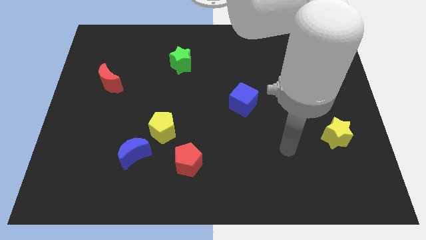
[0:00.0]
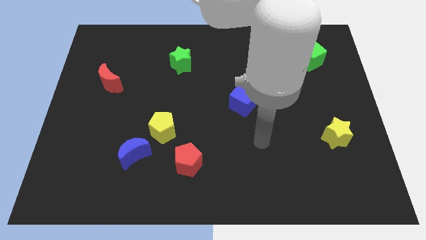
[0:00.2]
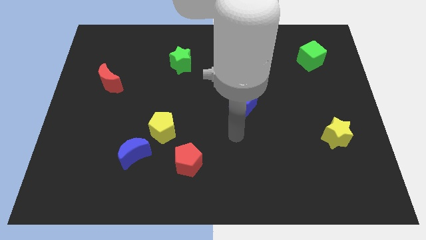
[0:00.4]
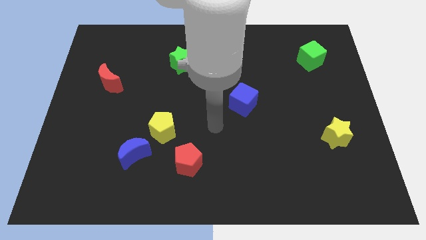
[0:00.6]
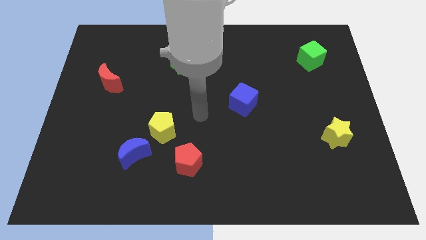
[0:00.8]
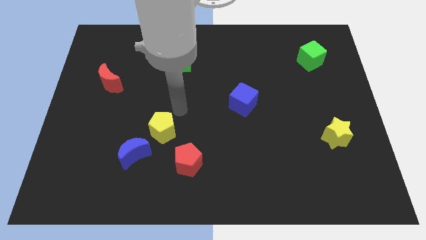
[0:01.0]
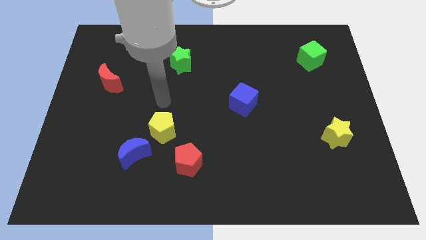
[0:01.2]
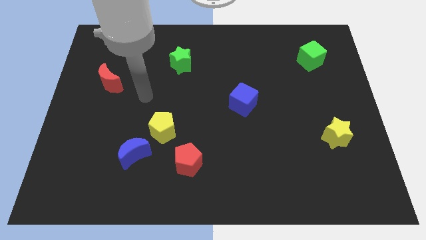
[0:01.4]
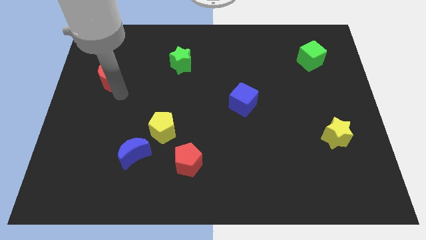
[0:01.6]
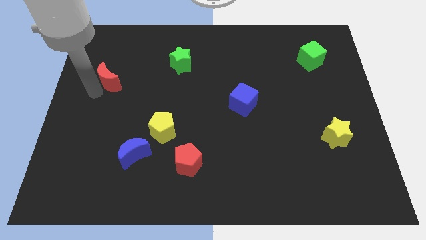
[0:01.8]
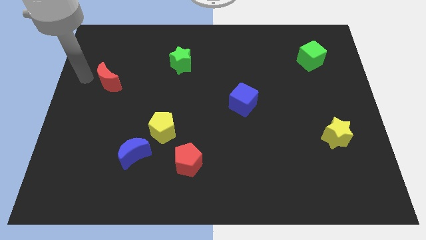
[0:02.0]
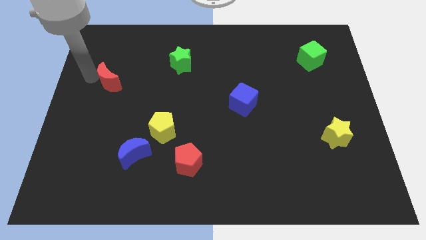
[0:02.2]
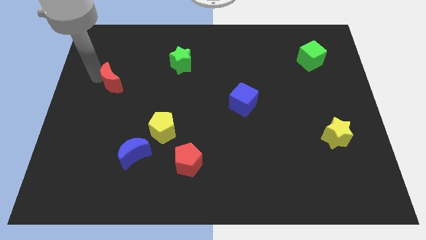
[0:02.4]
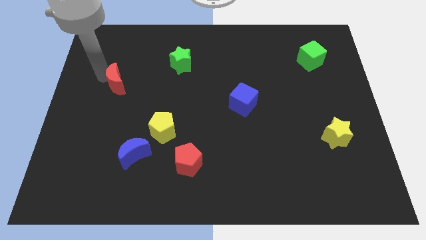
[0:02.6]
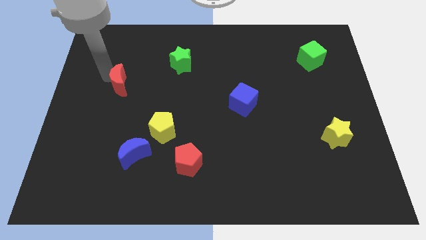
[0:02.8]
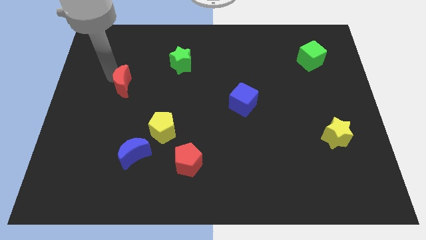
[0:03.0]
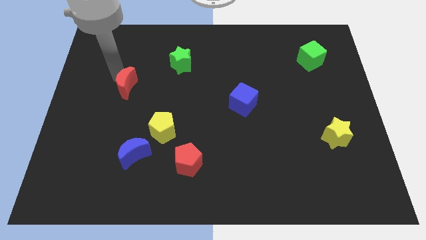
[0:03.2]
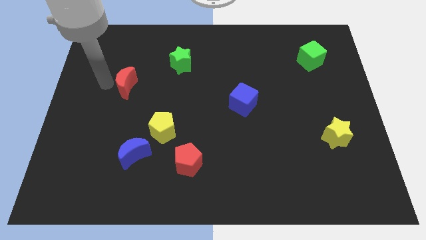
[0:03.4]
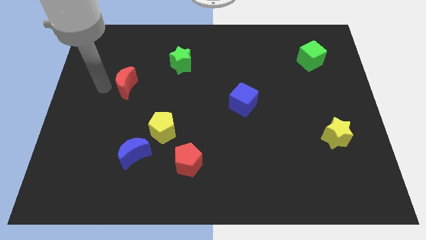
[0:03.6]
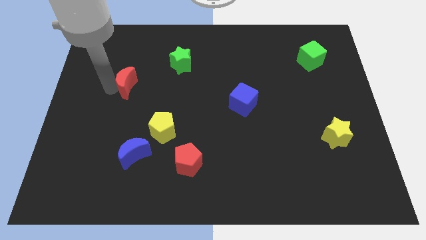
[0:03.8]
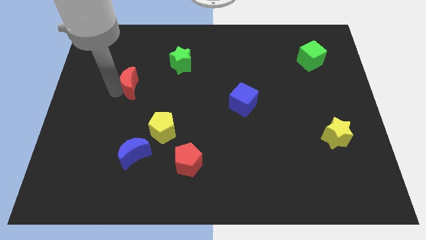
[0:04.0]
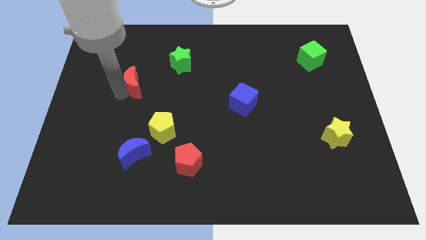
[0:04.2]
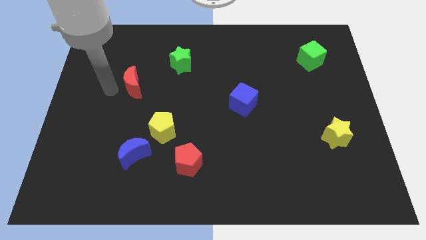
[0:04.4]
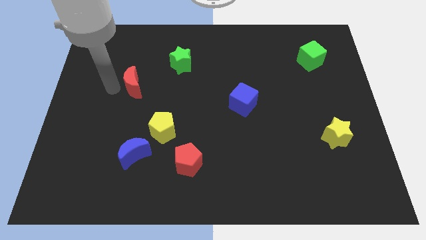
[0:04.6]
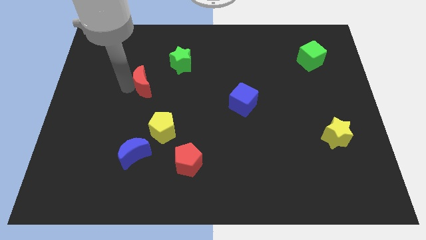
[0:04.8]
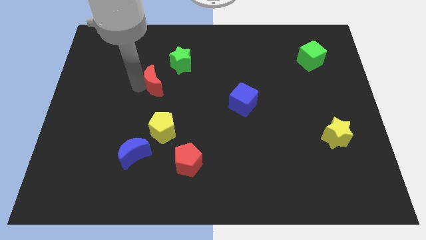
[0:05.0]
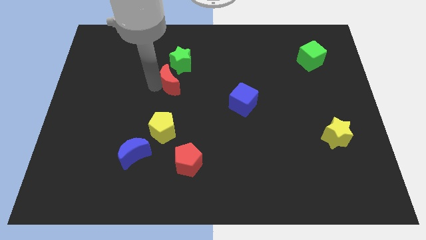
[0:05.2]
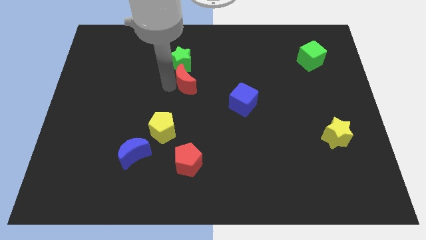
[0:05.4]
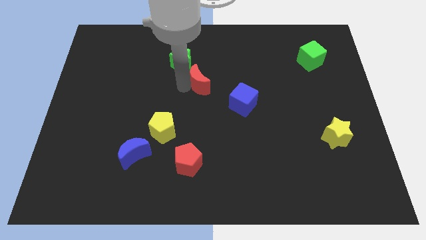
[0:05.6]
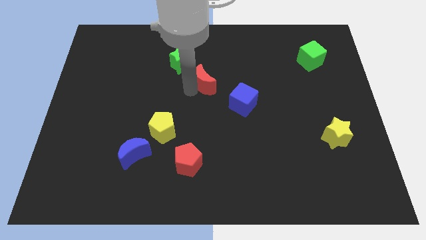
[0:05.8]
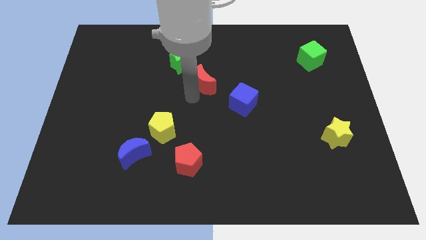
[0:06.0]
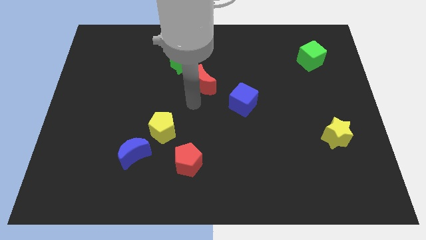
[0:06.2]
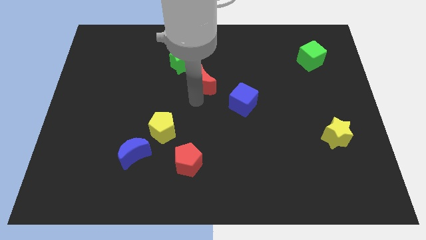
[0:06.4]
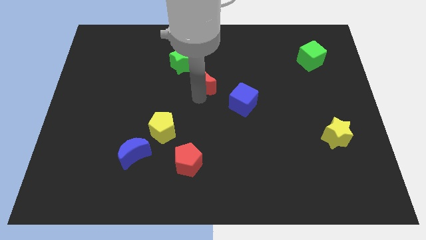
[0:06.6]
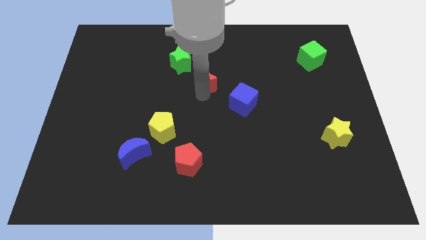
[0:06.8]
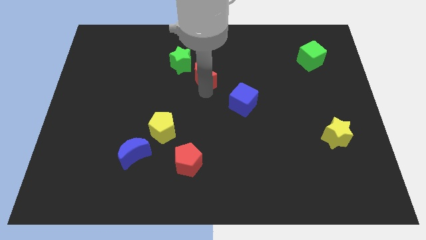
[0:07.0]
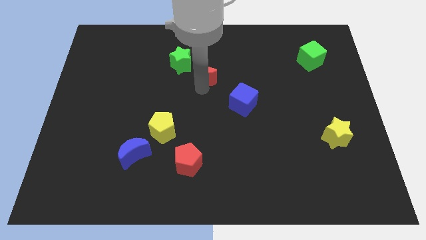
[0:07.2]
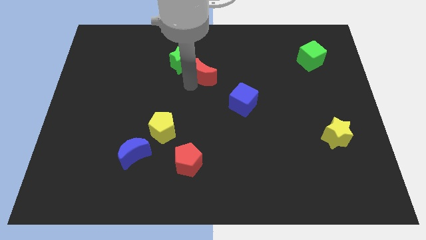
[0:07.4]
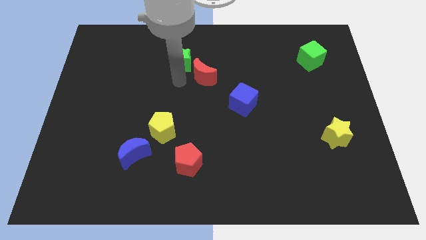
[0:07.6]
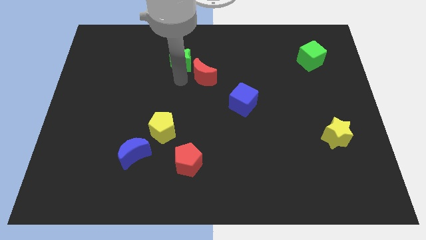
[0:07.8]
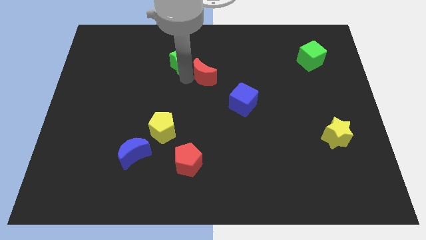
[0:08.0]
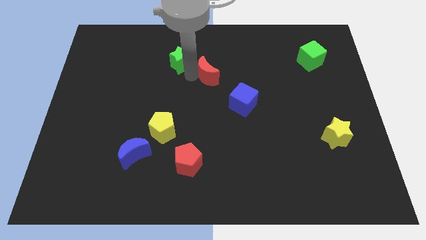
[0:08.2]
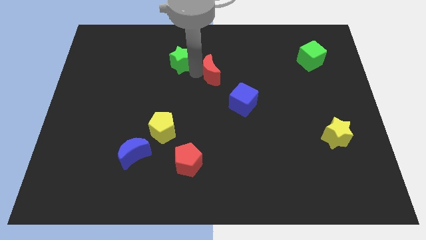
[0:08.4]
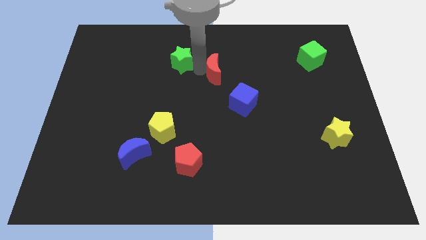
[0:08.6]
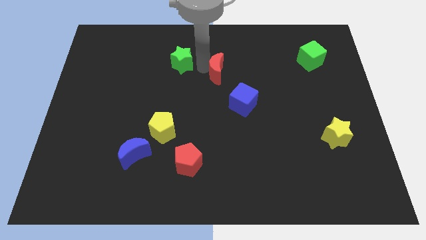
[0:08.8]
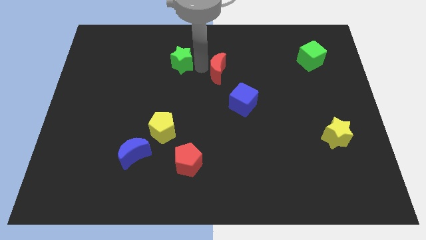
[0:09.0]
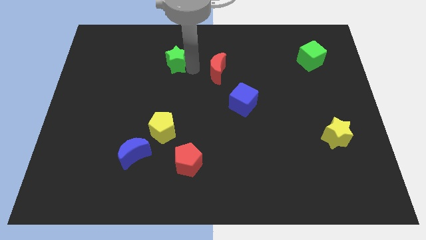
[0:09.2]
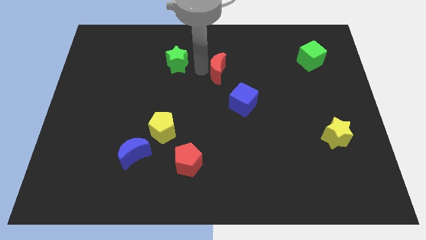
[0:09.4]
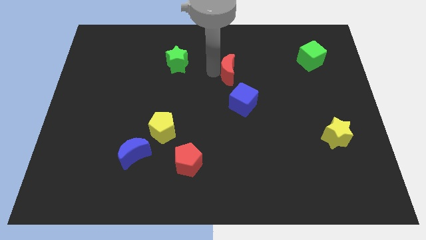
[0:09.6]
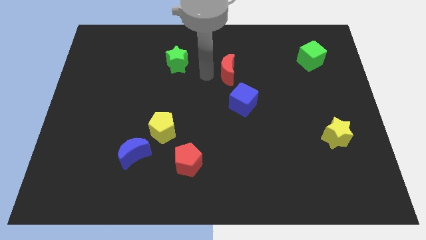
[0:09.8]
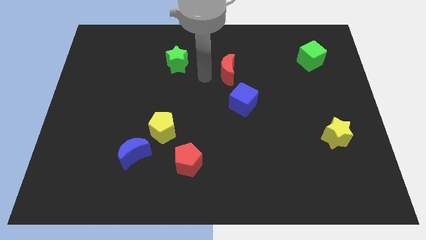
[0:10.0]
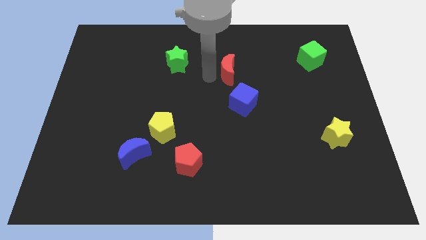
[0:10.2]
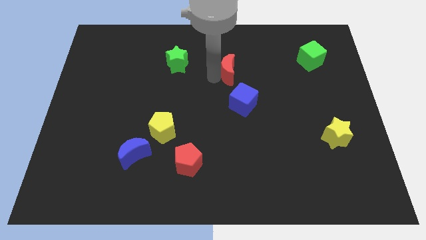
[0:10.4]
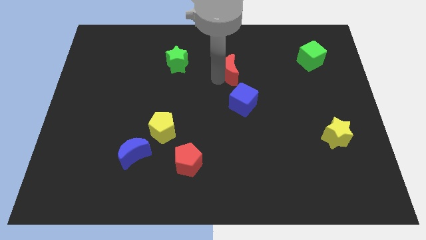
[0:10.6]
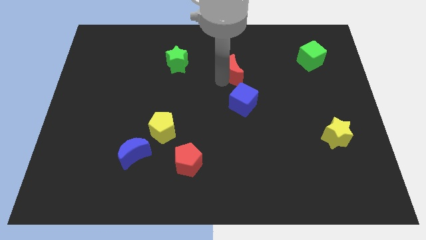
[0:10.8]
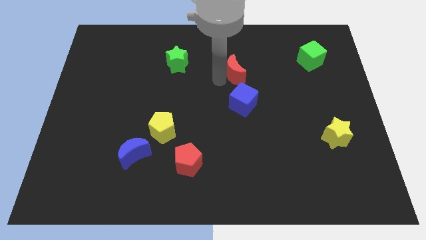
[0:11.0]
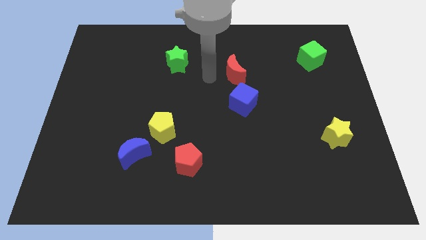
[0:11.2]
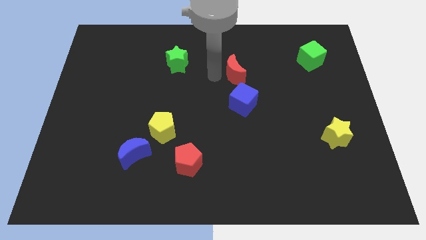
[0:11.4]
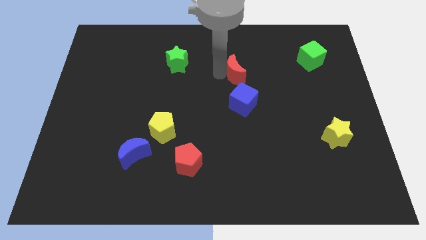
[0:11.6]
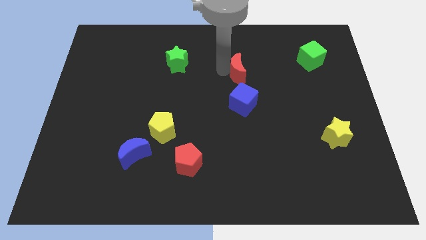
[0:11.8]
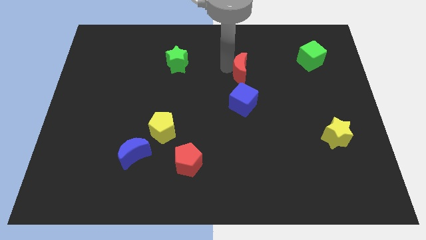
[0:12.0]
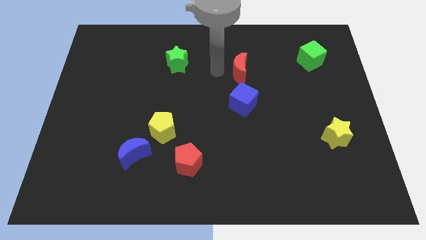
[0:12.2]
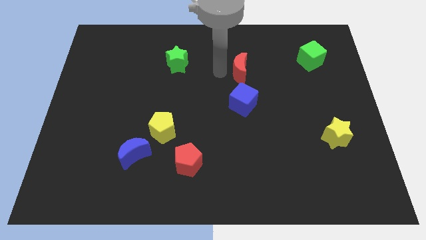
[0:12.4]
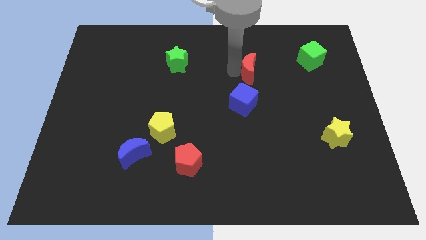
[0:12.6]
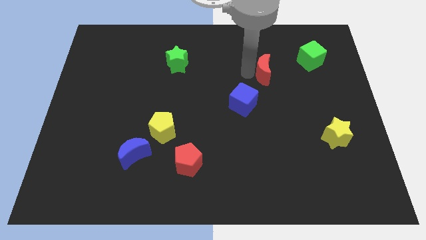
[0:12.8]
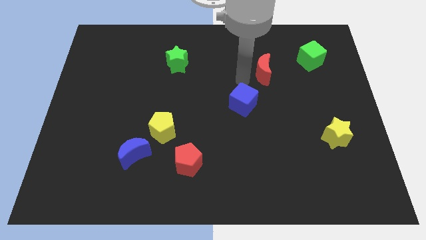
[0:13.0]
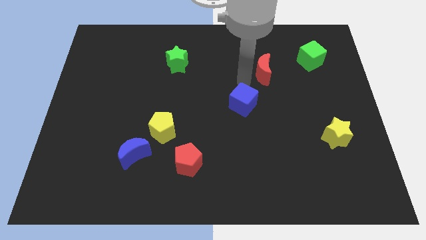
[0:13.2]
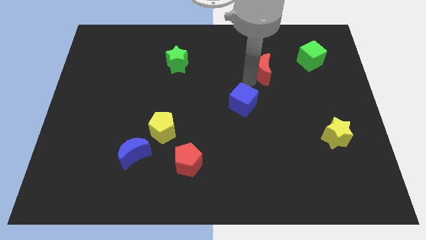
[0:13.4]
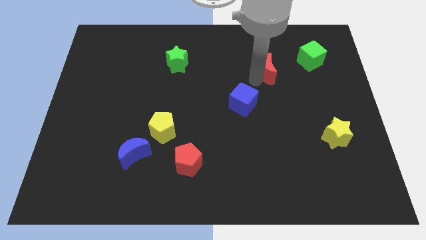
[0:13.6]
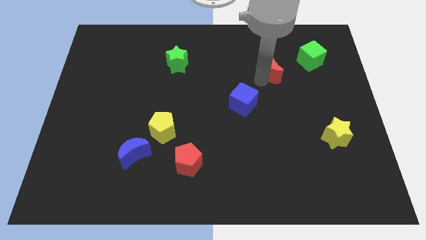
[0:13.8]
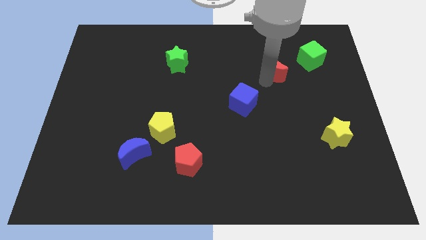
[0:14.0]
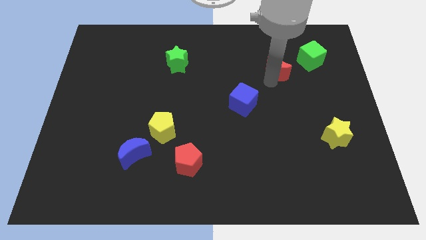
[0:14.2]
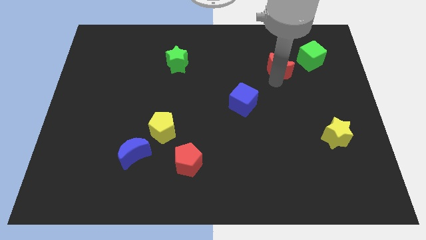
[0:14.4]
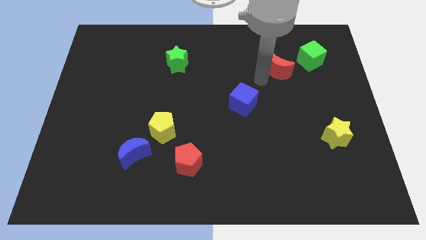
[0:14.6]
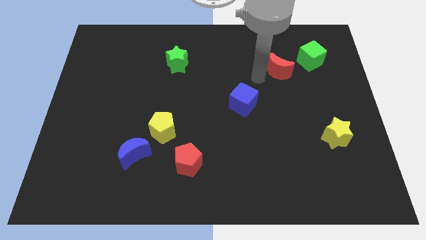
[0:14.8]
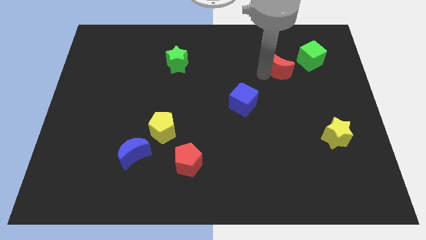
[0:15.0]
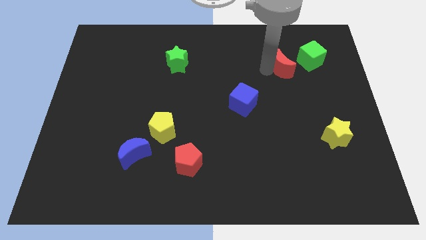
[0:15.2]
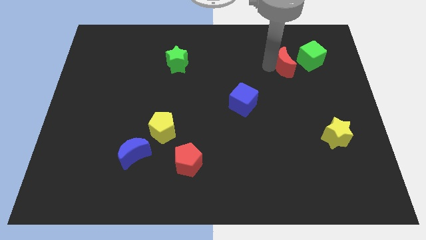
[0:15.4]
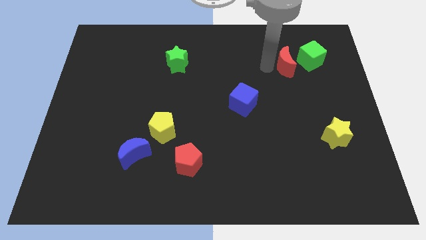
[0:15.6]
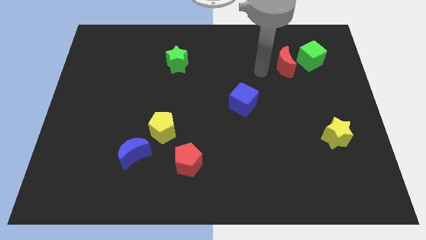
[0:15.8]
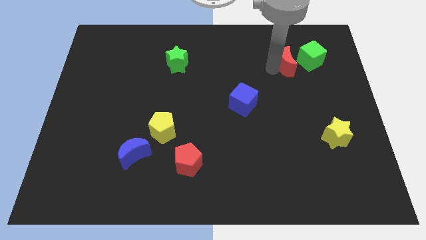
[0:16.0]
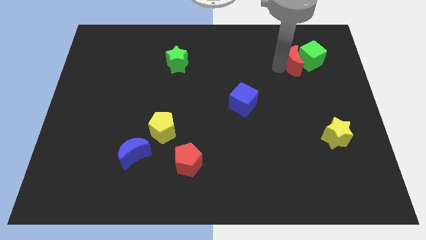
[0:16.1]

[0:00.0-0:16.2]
slide the red moon close to the green cube

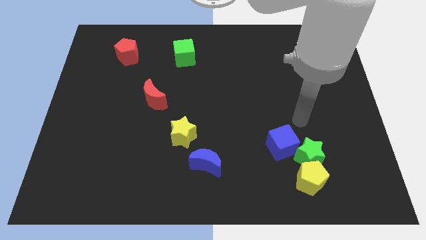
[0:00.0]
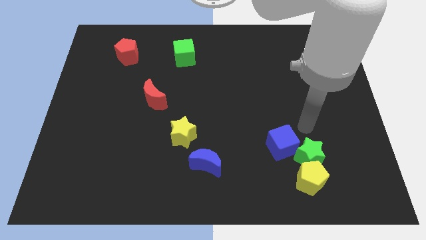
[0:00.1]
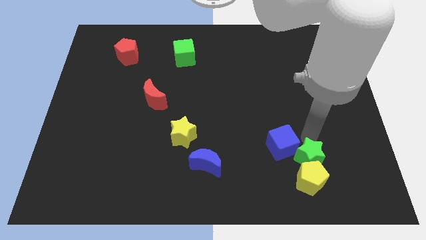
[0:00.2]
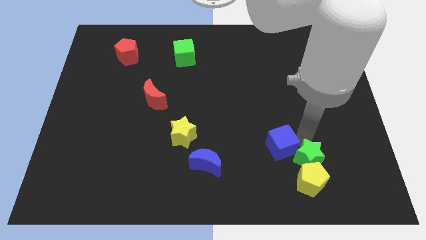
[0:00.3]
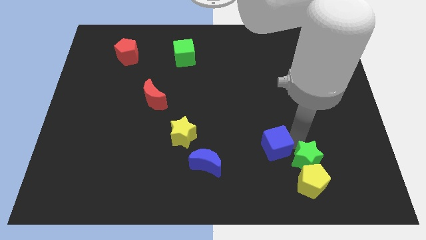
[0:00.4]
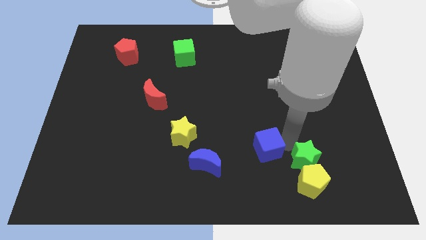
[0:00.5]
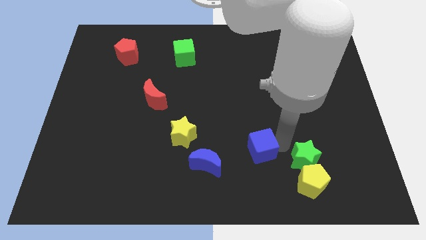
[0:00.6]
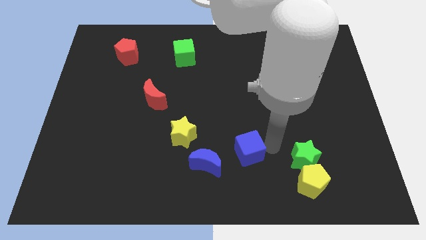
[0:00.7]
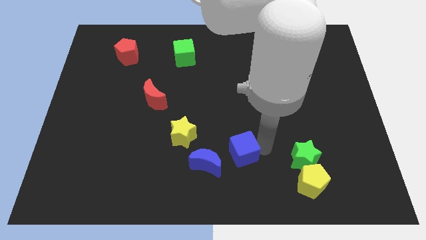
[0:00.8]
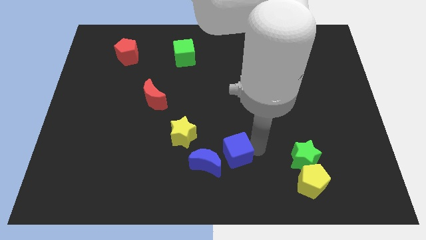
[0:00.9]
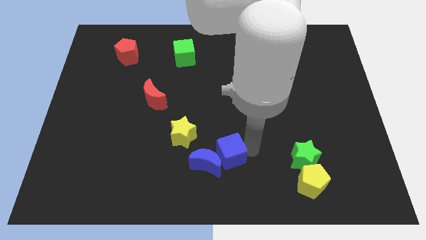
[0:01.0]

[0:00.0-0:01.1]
push the blue cube close to the blue moon
